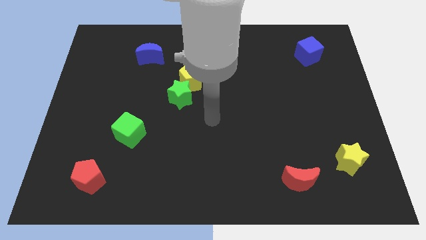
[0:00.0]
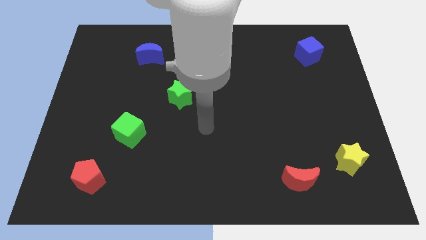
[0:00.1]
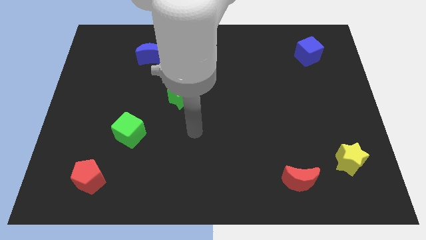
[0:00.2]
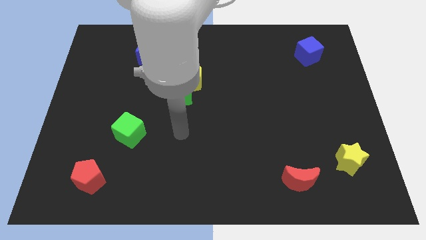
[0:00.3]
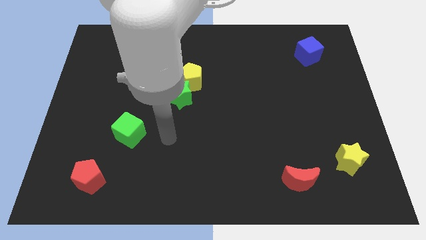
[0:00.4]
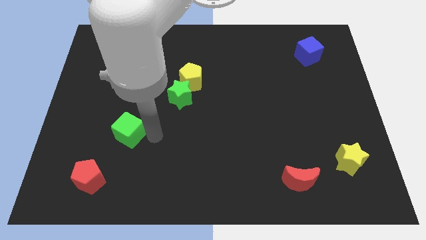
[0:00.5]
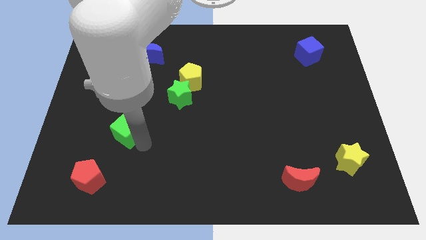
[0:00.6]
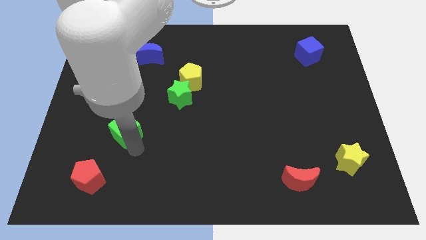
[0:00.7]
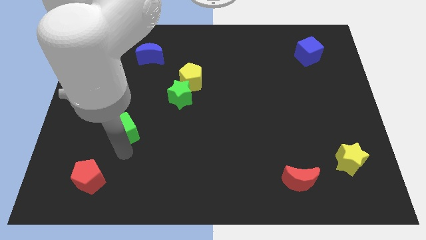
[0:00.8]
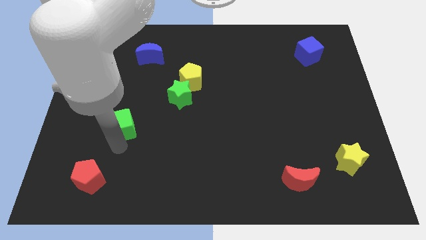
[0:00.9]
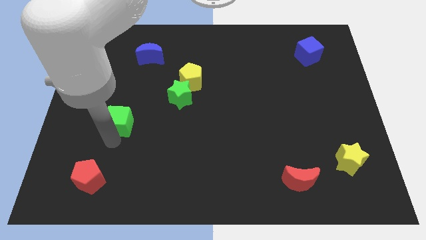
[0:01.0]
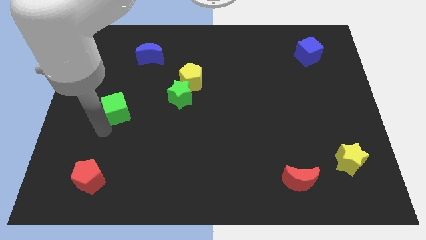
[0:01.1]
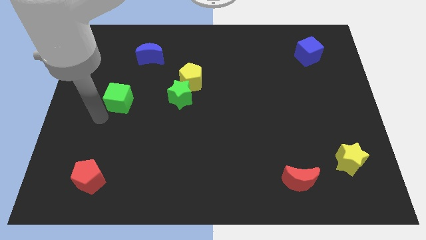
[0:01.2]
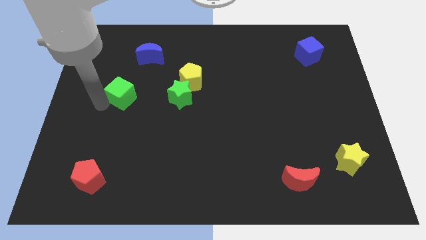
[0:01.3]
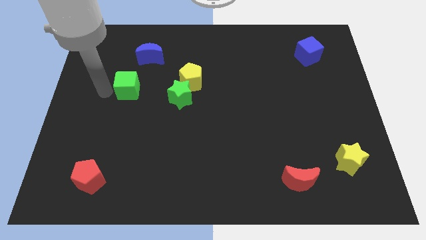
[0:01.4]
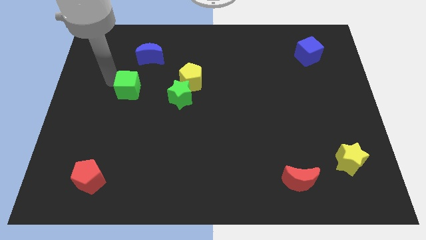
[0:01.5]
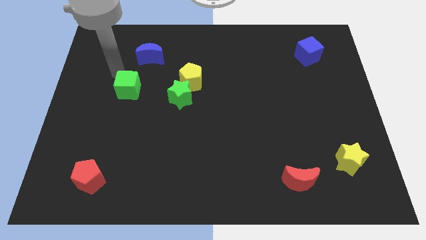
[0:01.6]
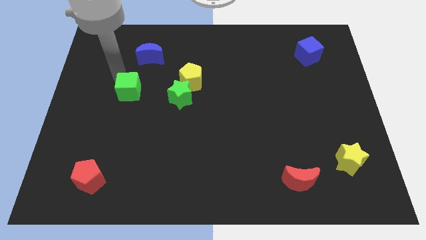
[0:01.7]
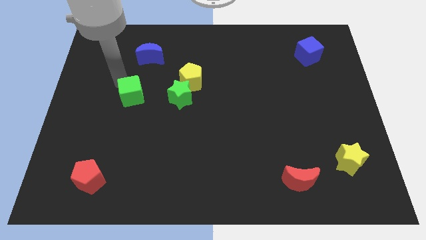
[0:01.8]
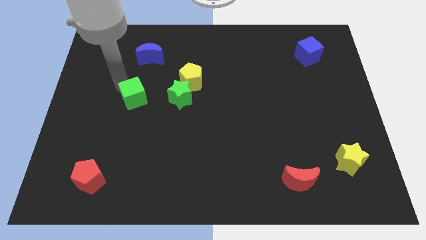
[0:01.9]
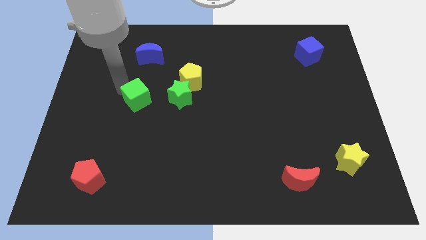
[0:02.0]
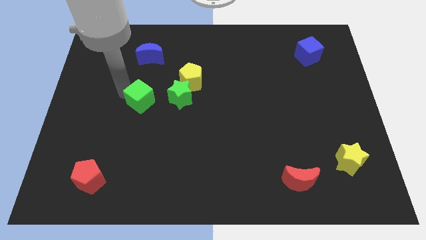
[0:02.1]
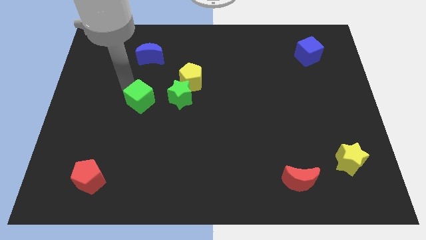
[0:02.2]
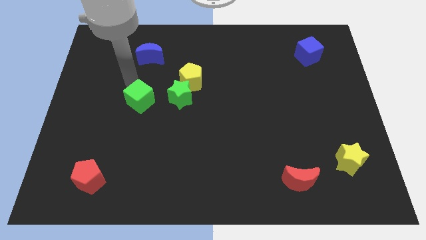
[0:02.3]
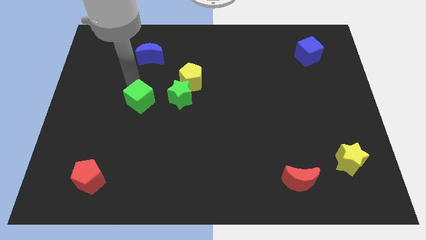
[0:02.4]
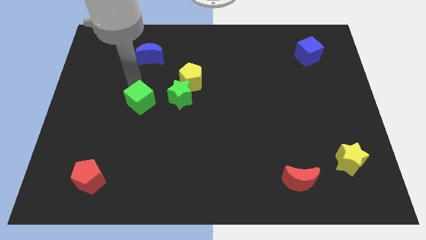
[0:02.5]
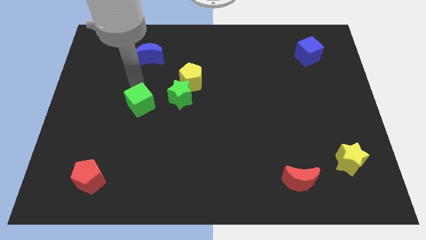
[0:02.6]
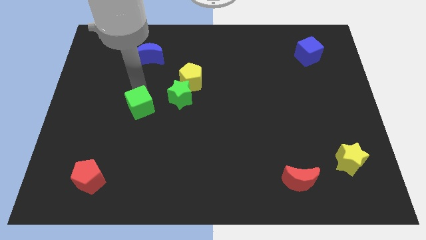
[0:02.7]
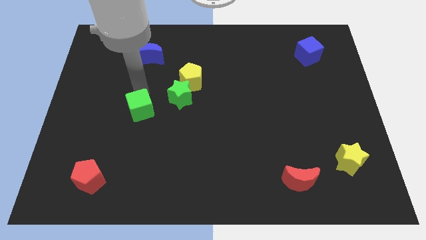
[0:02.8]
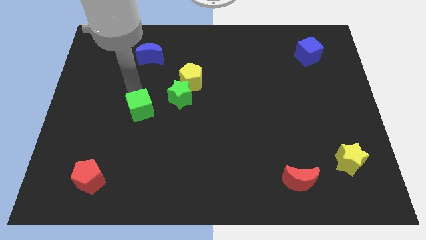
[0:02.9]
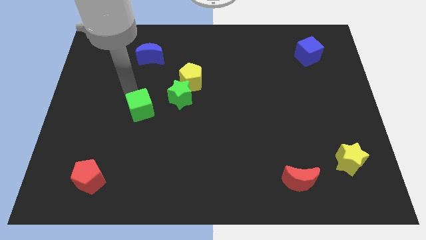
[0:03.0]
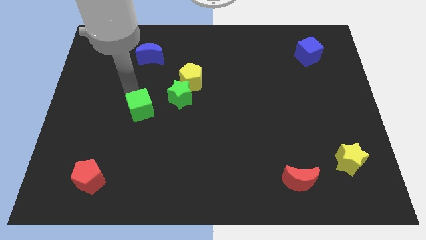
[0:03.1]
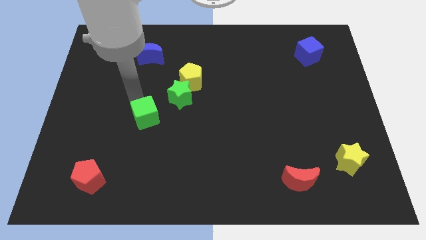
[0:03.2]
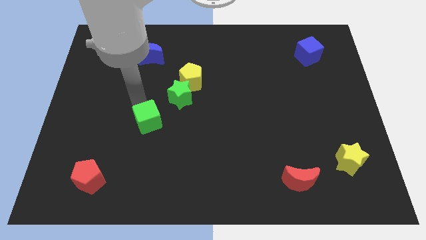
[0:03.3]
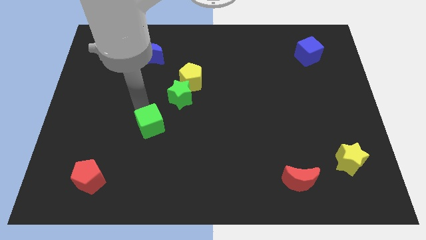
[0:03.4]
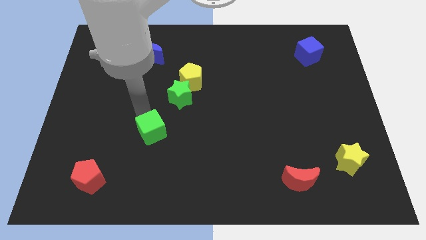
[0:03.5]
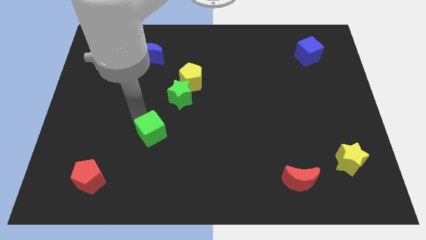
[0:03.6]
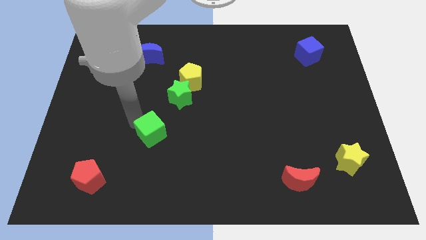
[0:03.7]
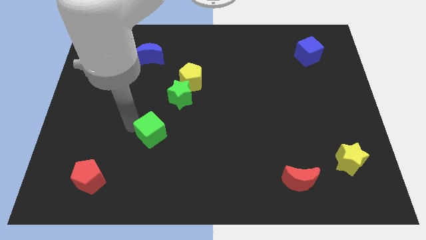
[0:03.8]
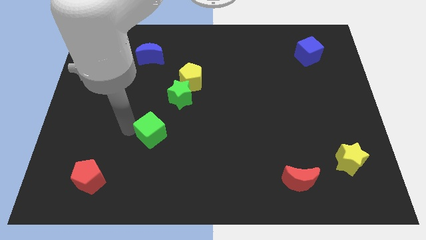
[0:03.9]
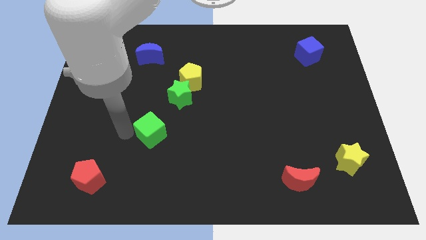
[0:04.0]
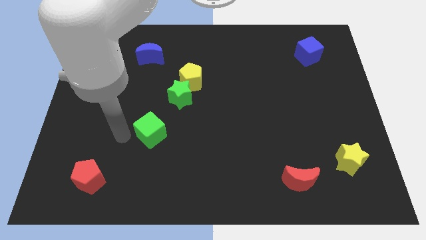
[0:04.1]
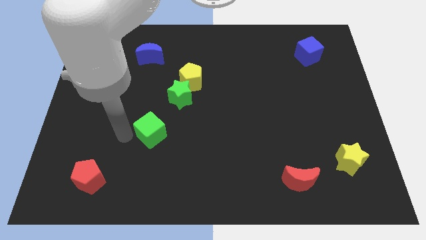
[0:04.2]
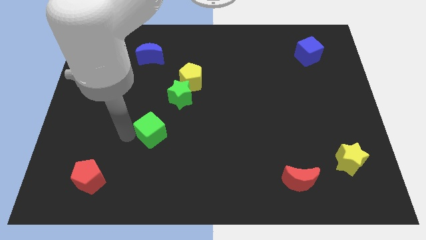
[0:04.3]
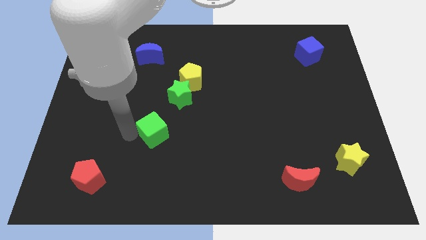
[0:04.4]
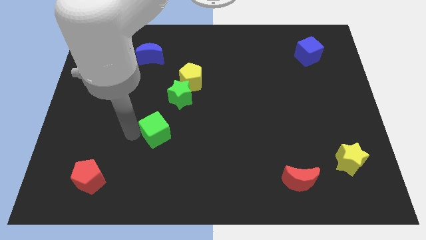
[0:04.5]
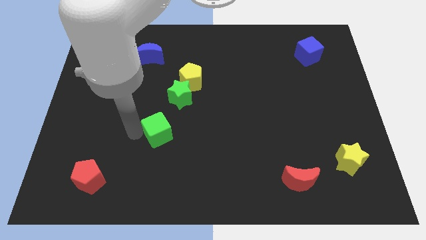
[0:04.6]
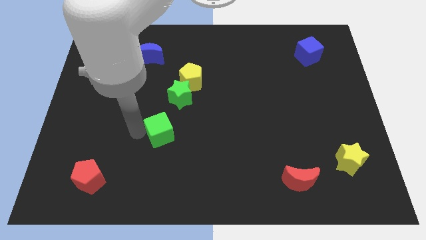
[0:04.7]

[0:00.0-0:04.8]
push the green cube right a bit

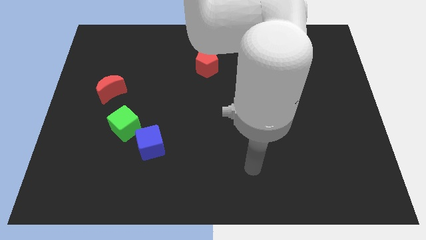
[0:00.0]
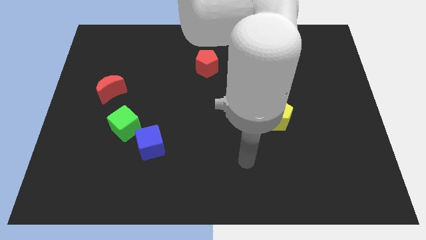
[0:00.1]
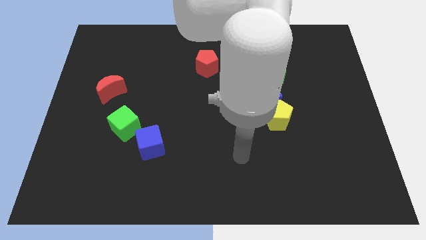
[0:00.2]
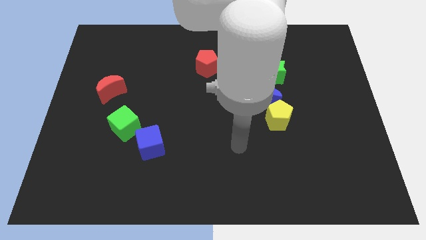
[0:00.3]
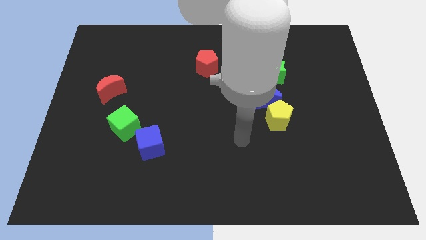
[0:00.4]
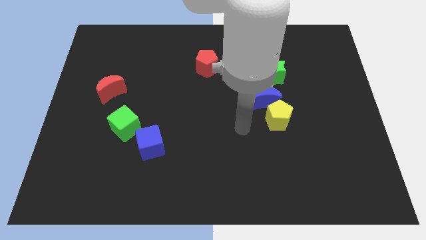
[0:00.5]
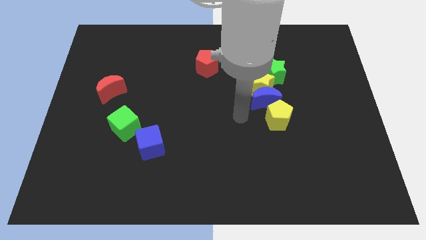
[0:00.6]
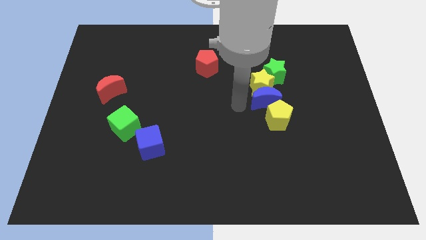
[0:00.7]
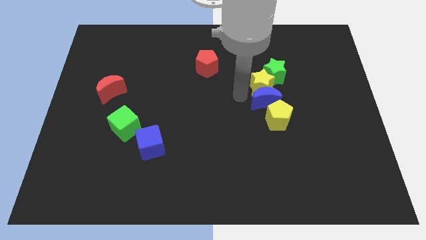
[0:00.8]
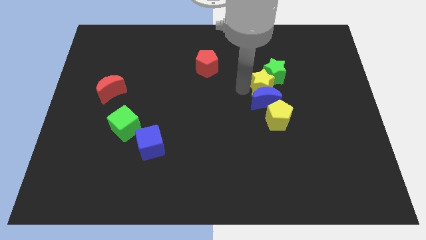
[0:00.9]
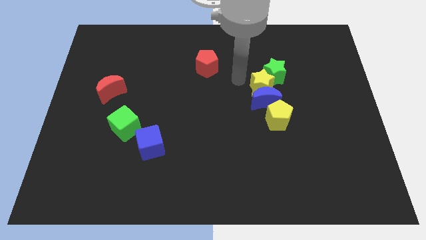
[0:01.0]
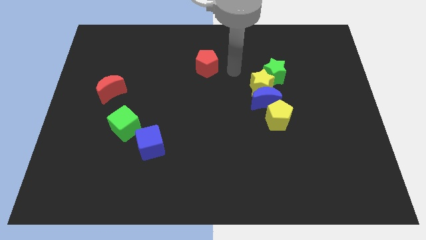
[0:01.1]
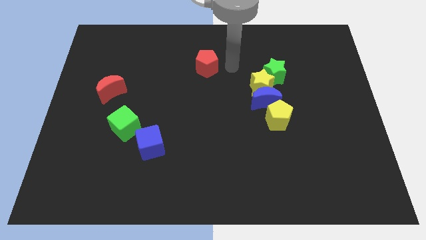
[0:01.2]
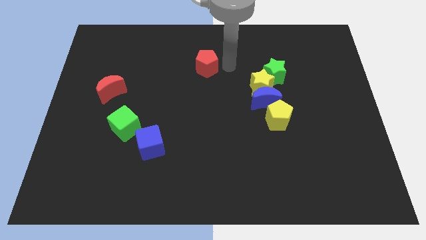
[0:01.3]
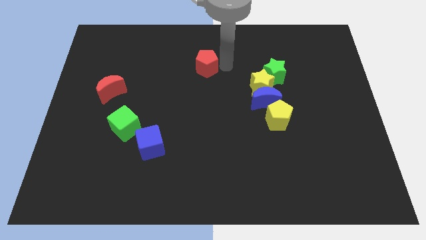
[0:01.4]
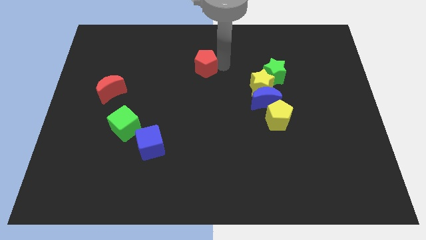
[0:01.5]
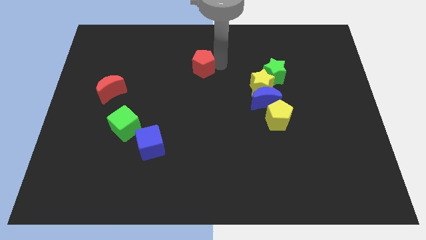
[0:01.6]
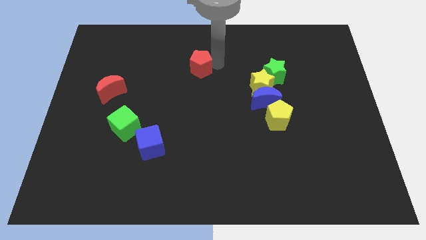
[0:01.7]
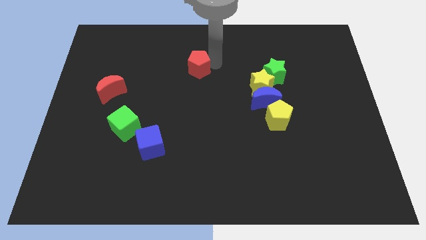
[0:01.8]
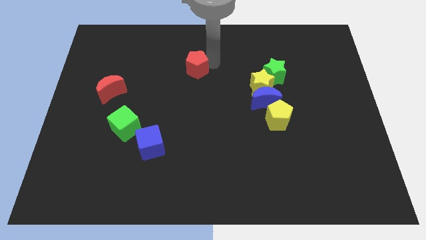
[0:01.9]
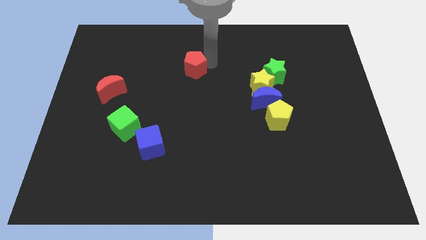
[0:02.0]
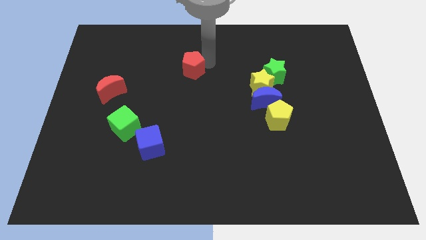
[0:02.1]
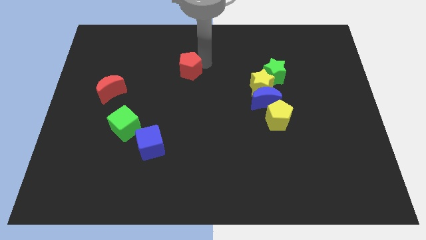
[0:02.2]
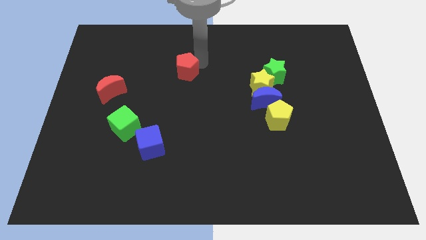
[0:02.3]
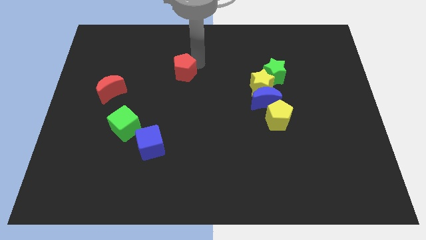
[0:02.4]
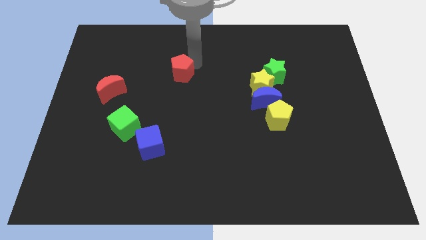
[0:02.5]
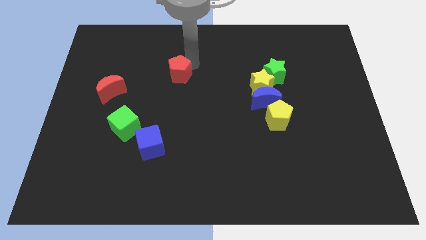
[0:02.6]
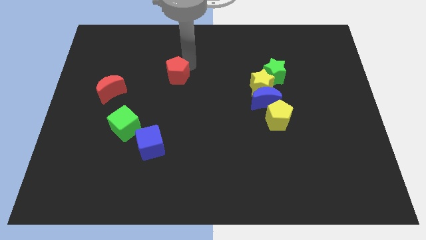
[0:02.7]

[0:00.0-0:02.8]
slide the red pentagon a little bit left

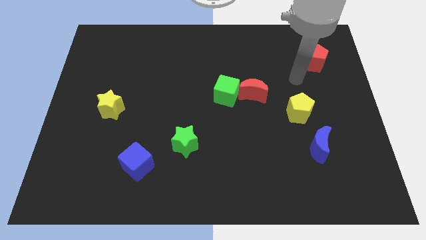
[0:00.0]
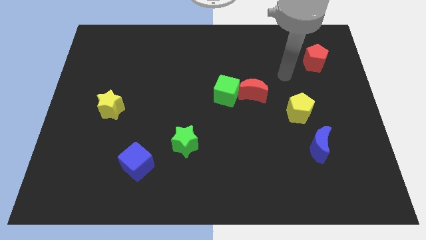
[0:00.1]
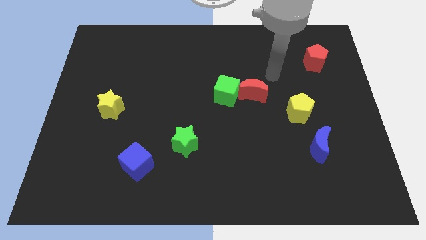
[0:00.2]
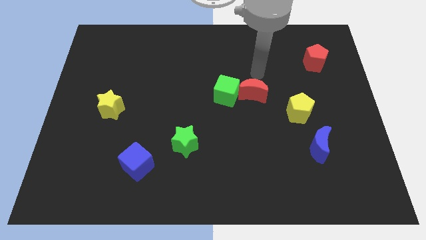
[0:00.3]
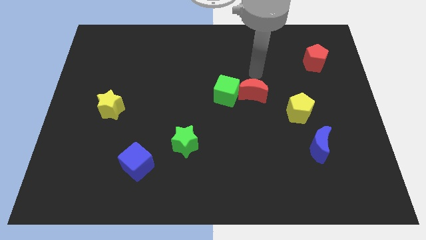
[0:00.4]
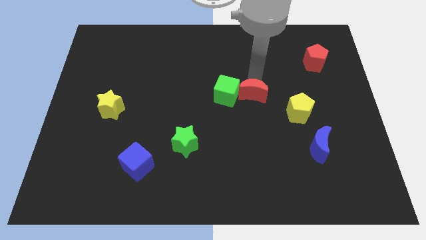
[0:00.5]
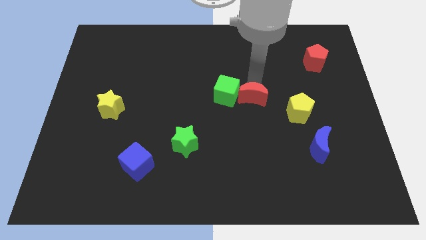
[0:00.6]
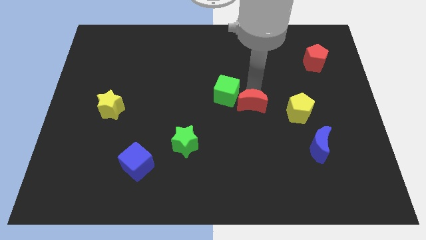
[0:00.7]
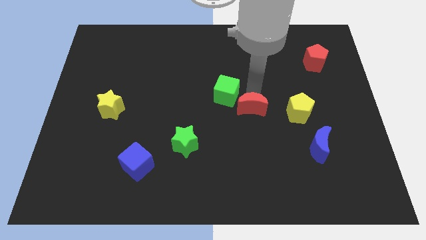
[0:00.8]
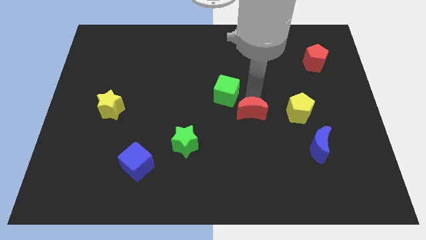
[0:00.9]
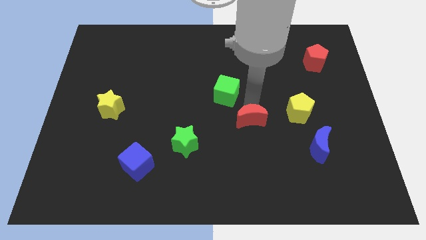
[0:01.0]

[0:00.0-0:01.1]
push the red moon downwards somewhat
